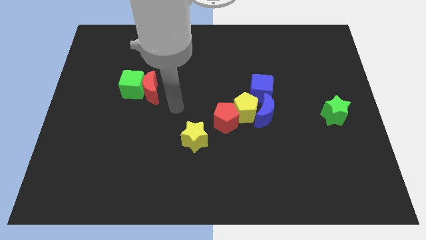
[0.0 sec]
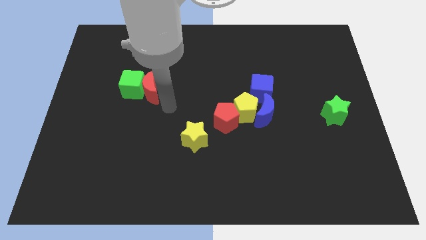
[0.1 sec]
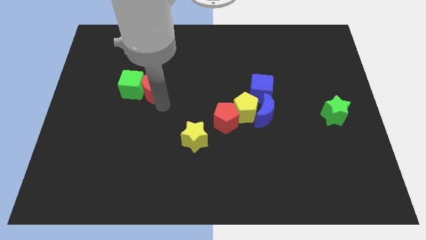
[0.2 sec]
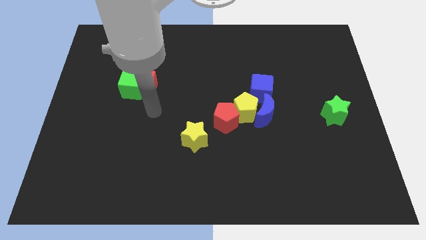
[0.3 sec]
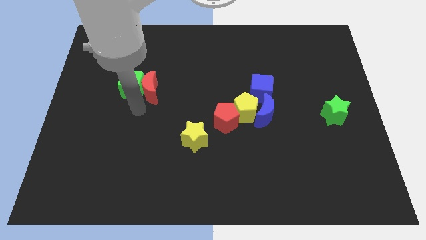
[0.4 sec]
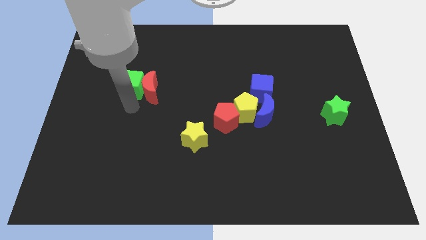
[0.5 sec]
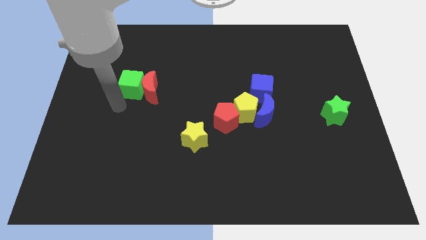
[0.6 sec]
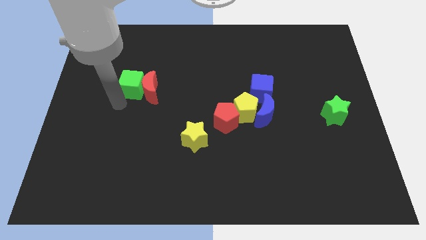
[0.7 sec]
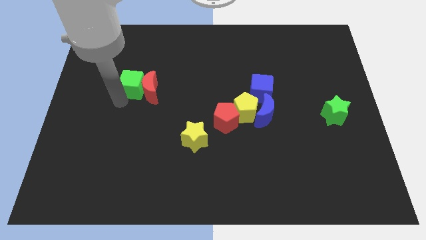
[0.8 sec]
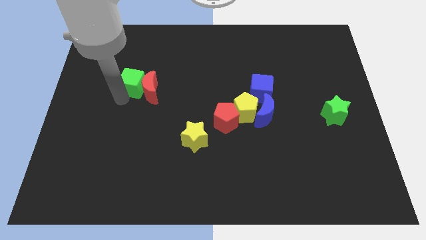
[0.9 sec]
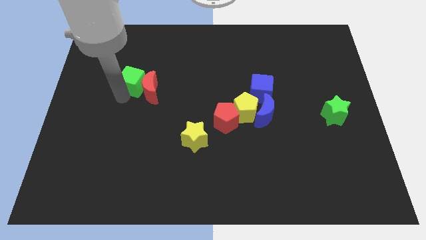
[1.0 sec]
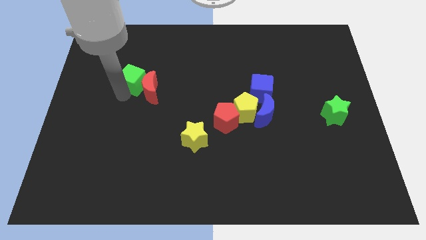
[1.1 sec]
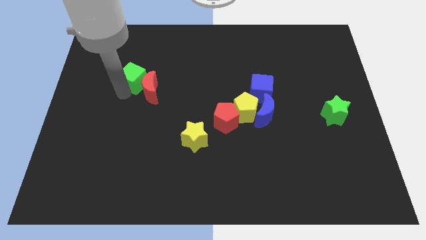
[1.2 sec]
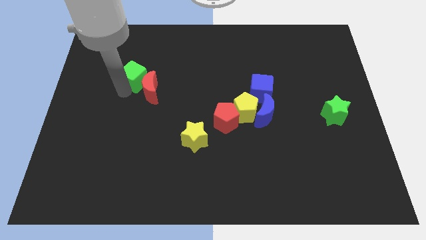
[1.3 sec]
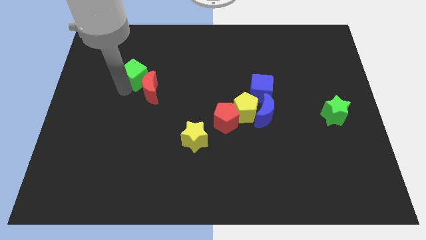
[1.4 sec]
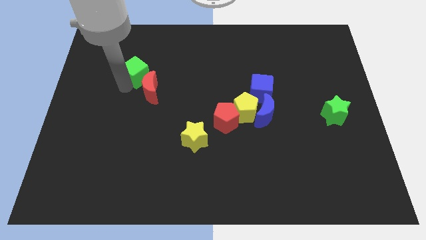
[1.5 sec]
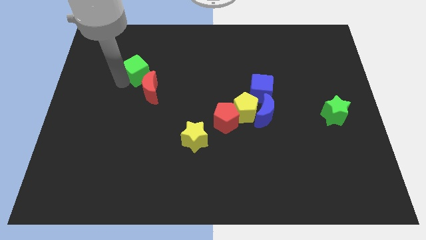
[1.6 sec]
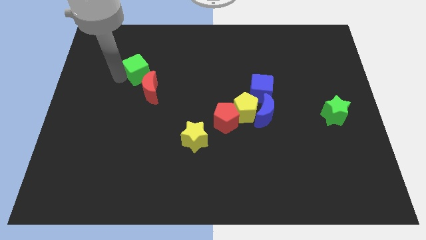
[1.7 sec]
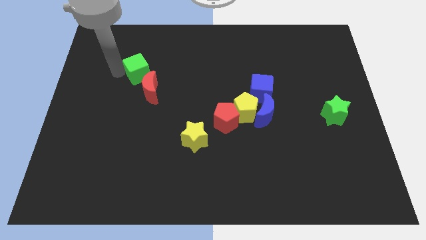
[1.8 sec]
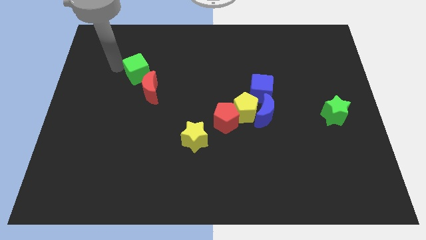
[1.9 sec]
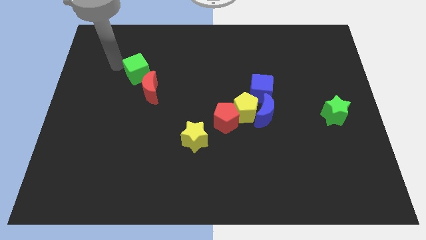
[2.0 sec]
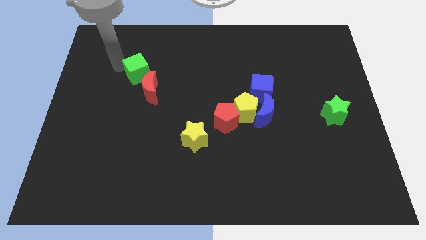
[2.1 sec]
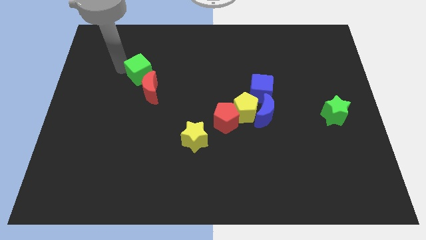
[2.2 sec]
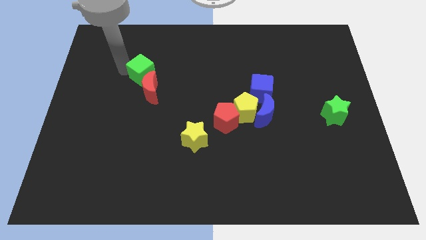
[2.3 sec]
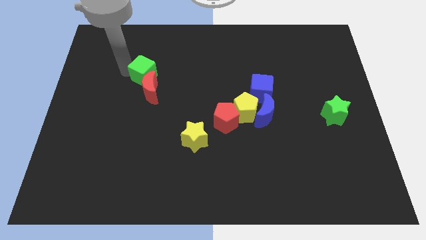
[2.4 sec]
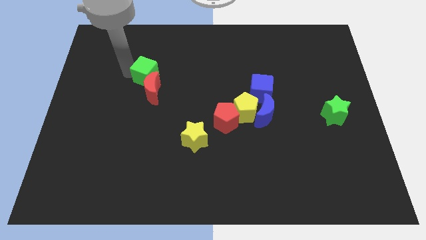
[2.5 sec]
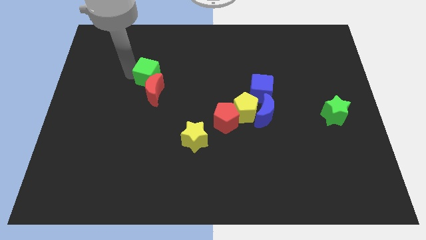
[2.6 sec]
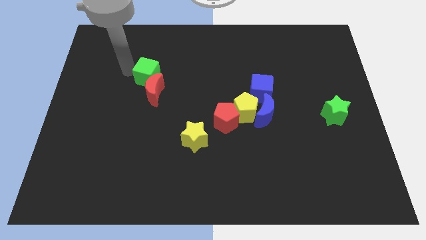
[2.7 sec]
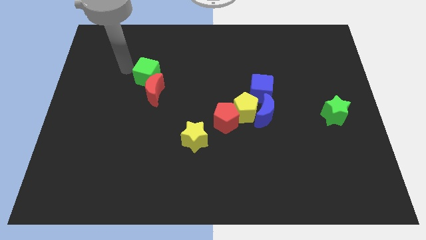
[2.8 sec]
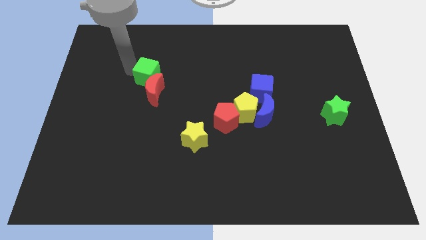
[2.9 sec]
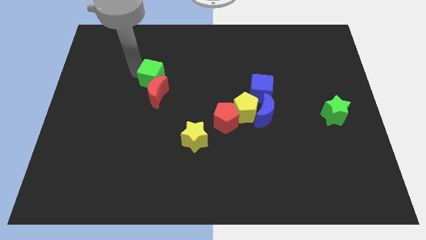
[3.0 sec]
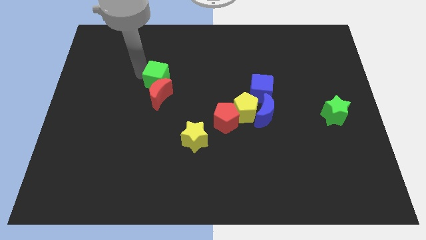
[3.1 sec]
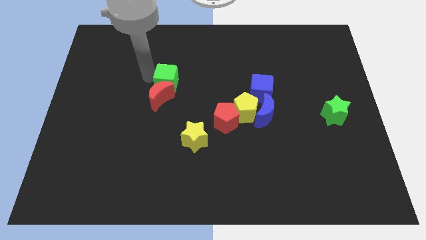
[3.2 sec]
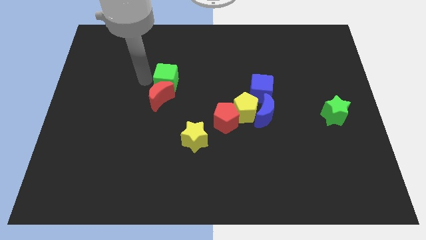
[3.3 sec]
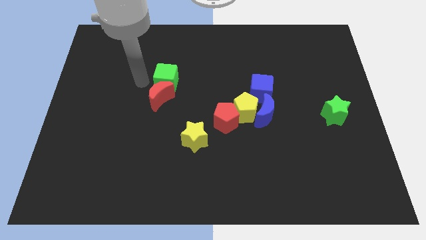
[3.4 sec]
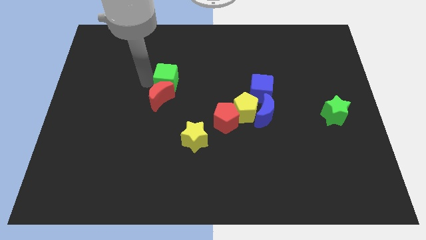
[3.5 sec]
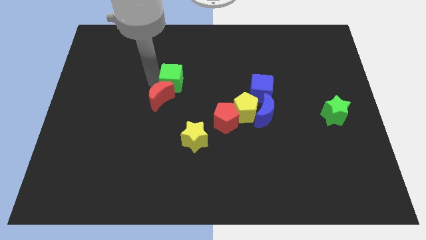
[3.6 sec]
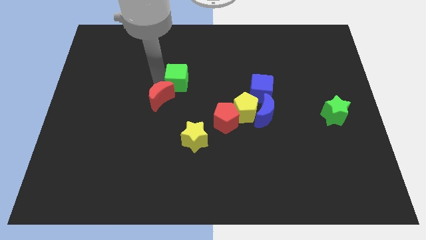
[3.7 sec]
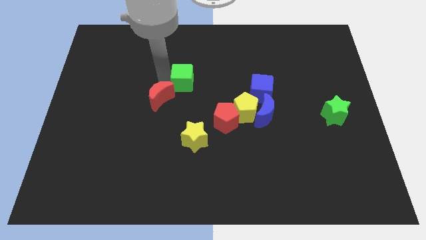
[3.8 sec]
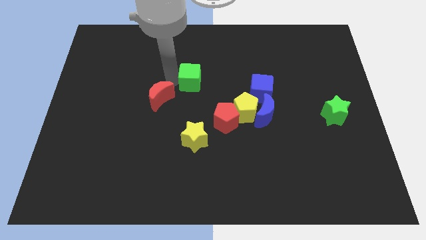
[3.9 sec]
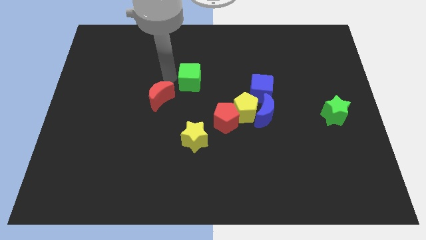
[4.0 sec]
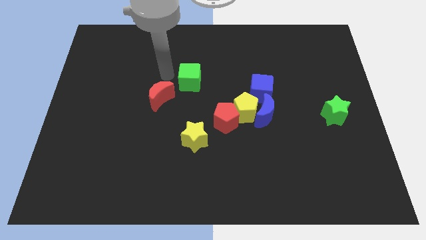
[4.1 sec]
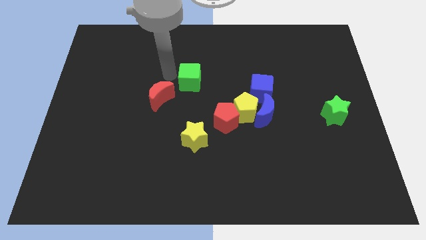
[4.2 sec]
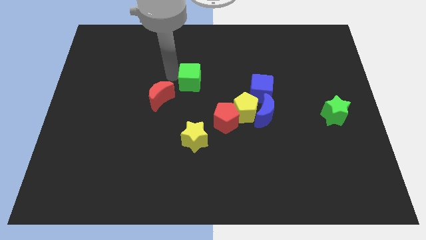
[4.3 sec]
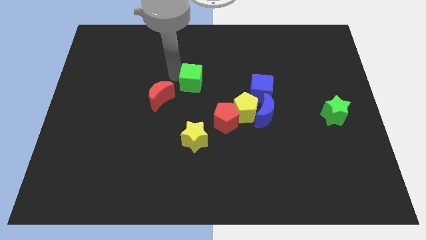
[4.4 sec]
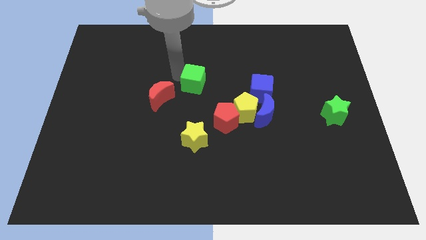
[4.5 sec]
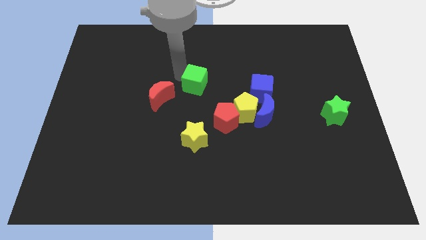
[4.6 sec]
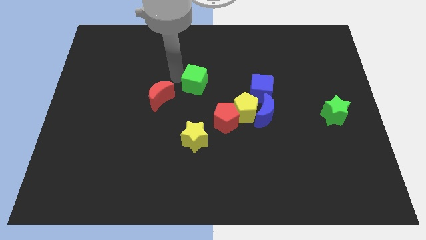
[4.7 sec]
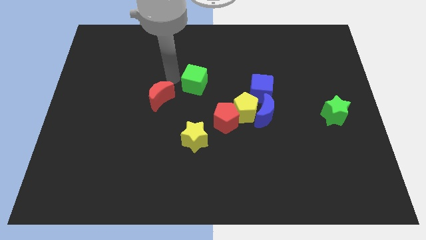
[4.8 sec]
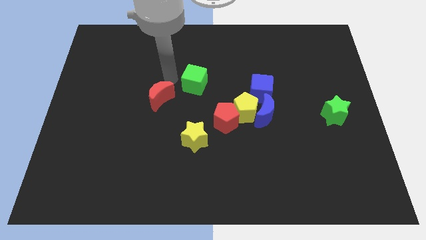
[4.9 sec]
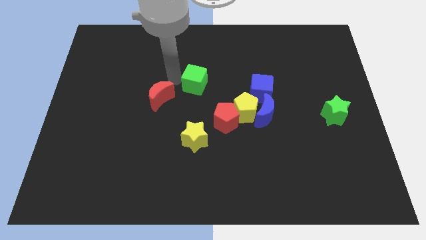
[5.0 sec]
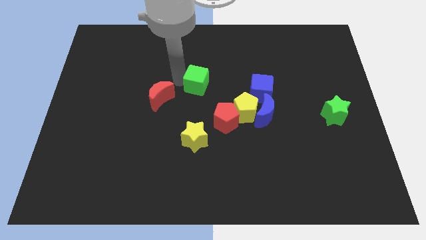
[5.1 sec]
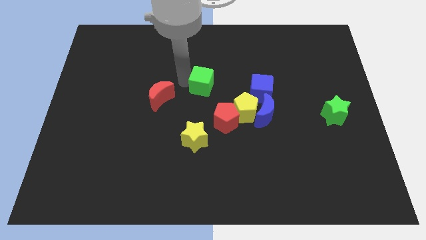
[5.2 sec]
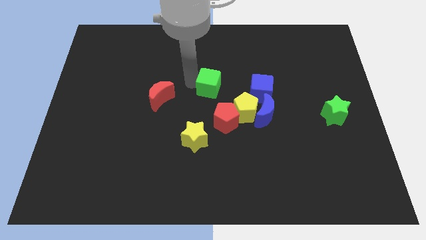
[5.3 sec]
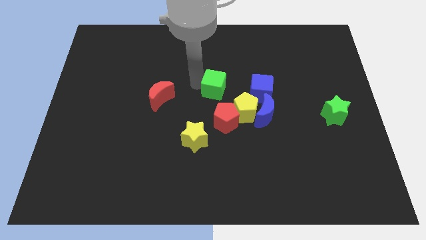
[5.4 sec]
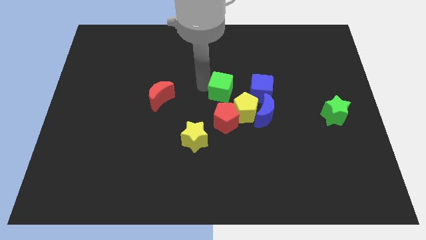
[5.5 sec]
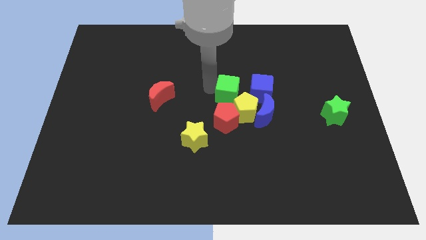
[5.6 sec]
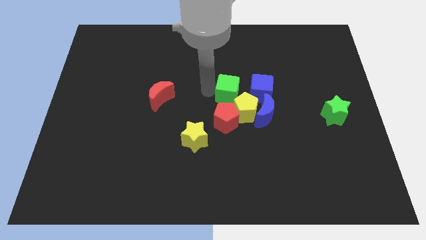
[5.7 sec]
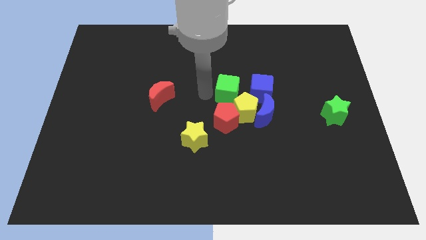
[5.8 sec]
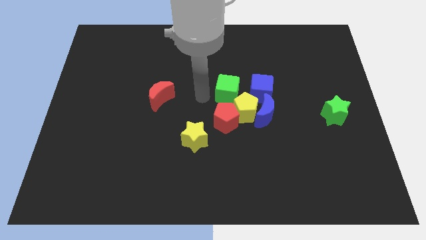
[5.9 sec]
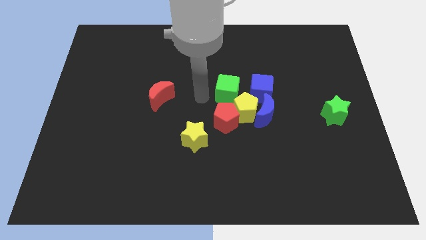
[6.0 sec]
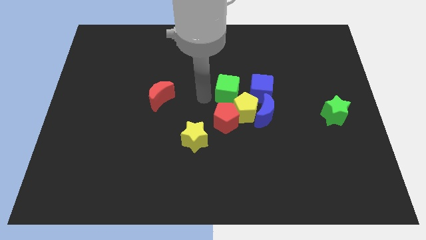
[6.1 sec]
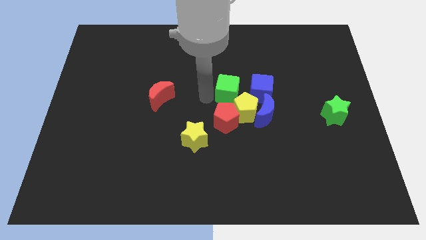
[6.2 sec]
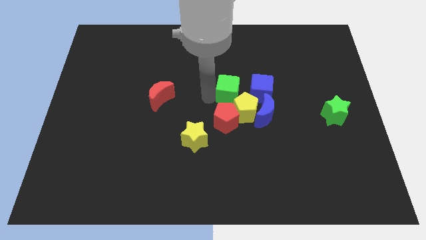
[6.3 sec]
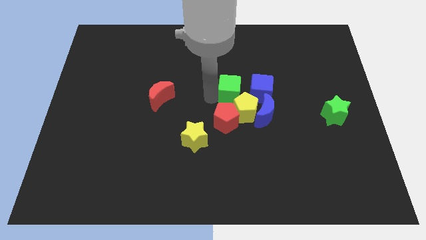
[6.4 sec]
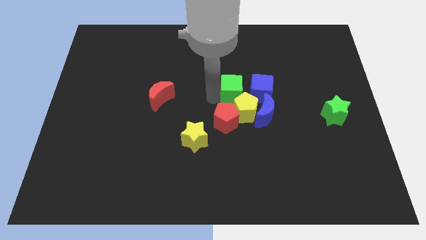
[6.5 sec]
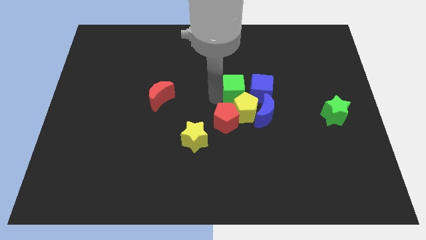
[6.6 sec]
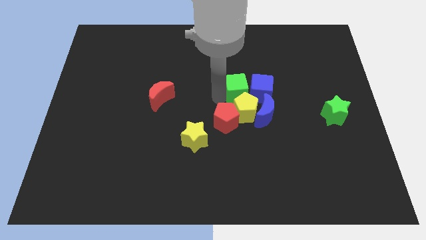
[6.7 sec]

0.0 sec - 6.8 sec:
move the green cube close to the blue cube
